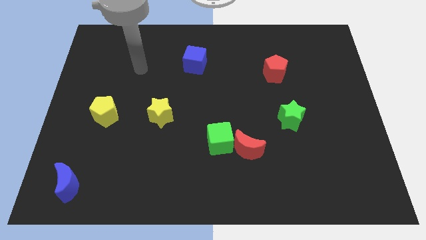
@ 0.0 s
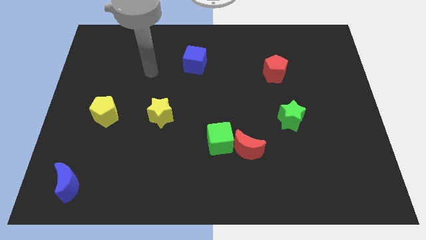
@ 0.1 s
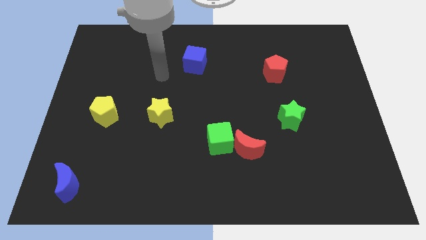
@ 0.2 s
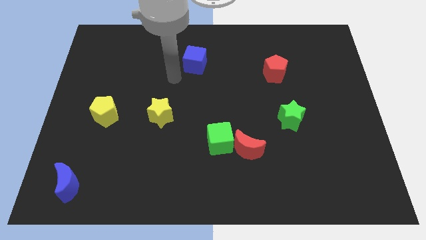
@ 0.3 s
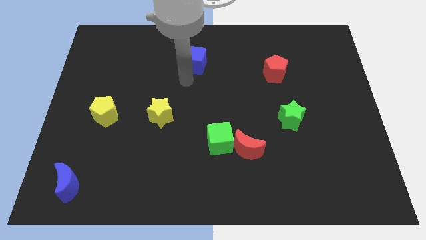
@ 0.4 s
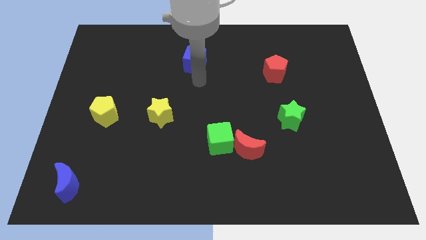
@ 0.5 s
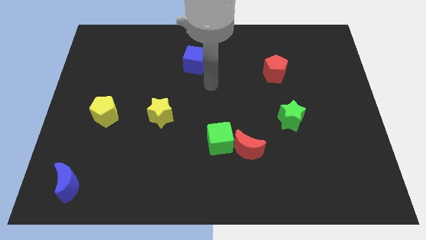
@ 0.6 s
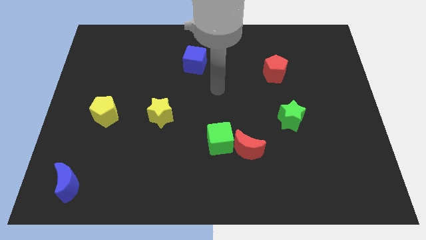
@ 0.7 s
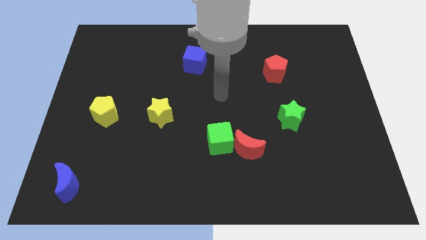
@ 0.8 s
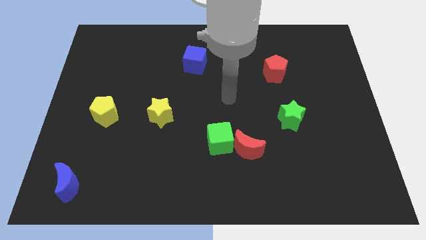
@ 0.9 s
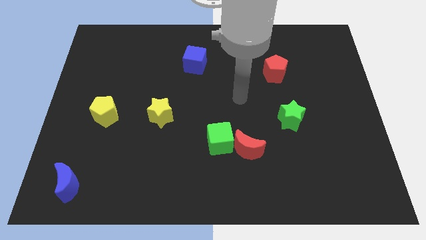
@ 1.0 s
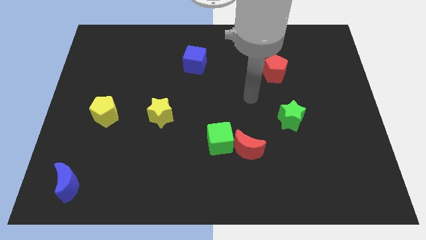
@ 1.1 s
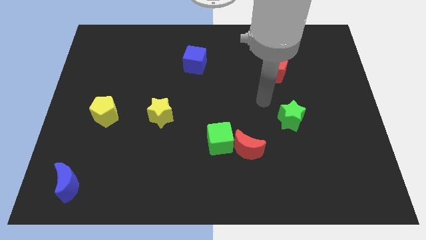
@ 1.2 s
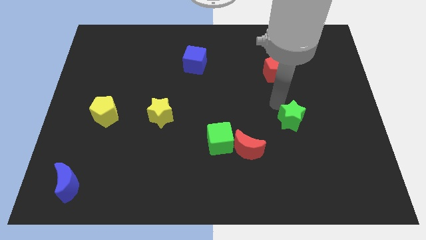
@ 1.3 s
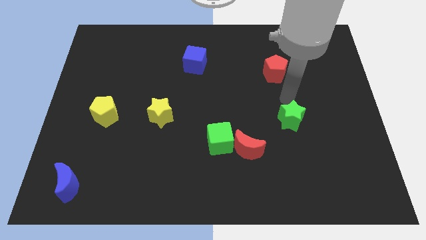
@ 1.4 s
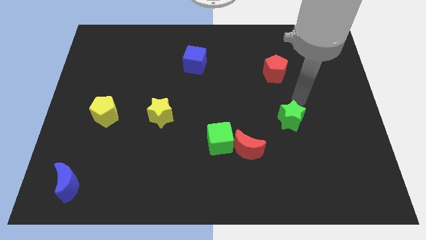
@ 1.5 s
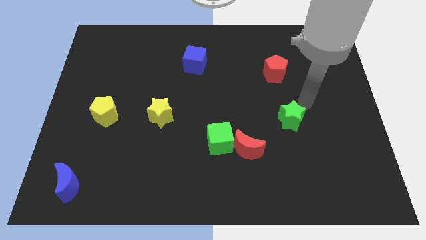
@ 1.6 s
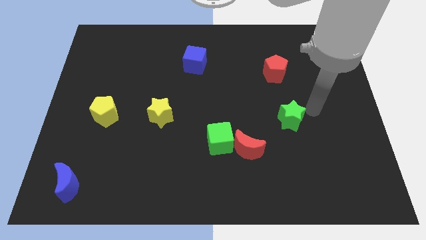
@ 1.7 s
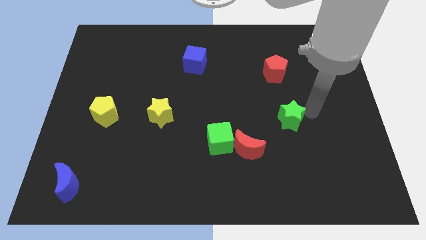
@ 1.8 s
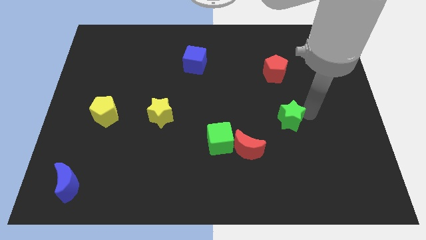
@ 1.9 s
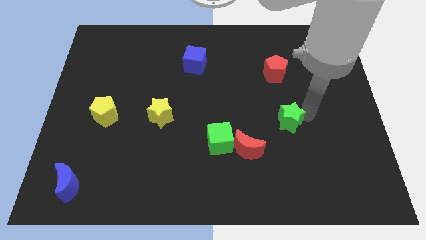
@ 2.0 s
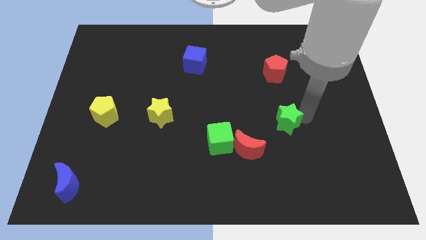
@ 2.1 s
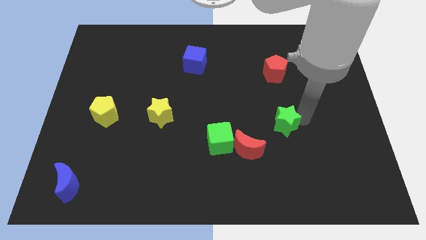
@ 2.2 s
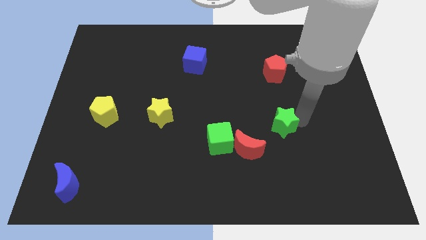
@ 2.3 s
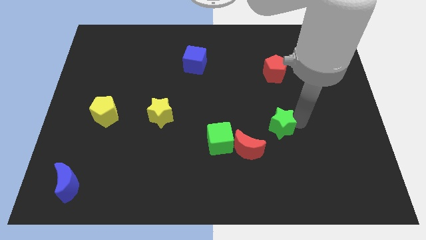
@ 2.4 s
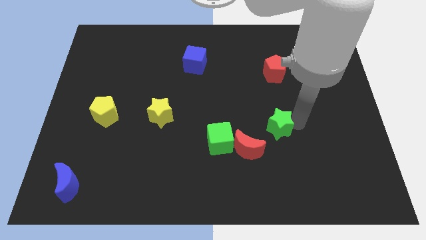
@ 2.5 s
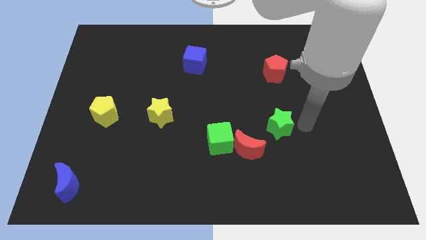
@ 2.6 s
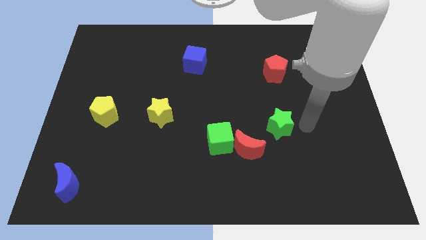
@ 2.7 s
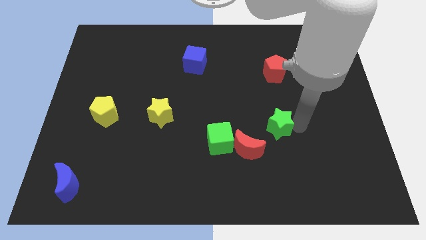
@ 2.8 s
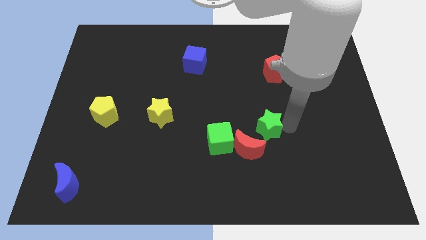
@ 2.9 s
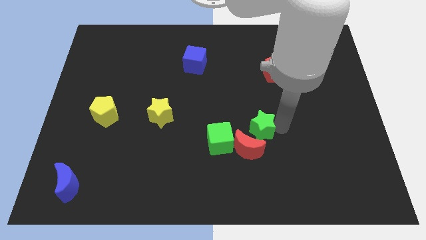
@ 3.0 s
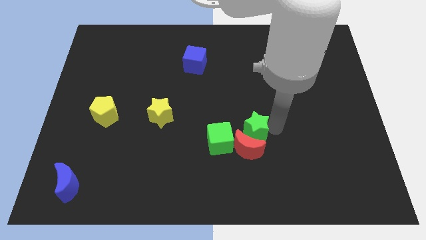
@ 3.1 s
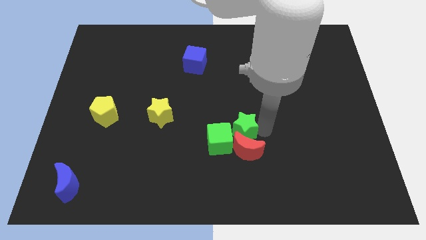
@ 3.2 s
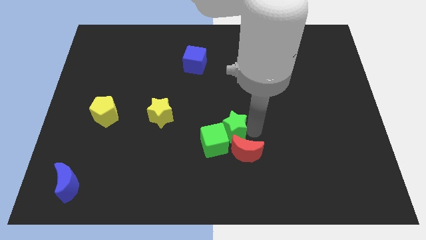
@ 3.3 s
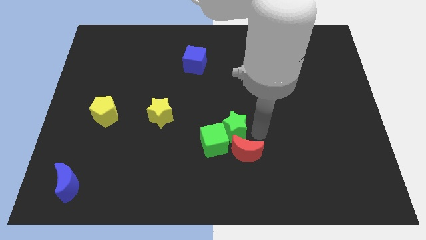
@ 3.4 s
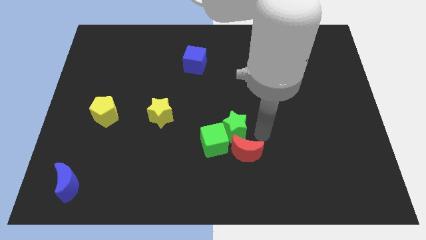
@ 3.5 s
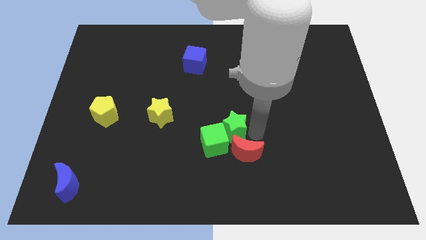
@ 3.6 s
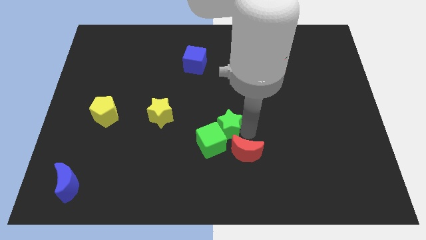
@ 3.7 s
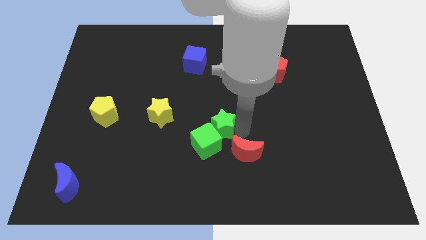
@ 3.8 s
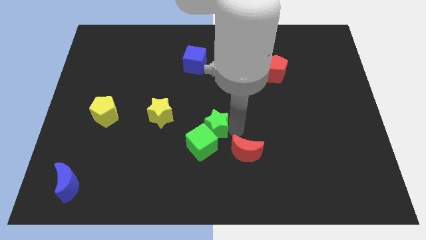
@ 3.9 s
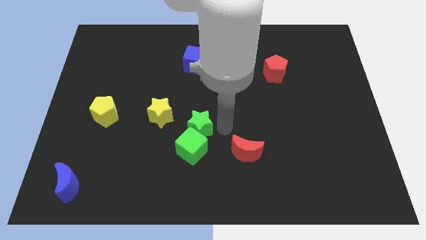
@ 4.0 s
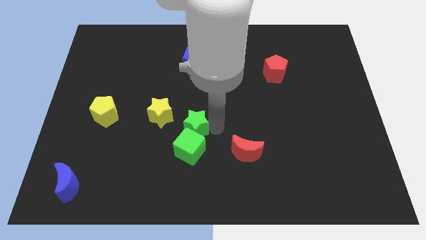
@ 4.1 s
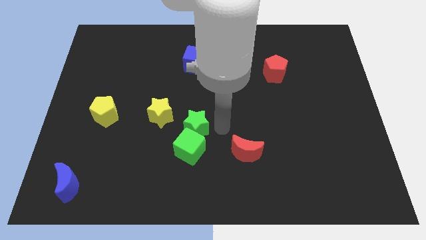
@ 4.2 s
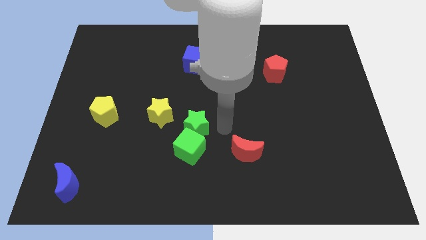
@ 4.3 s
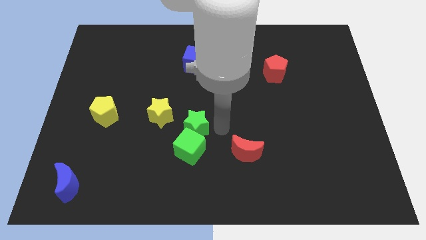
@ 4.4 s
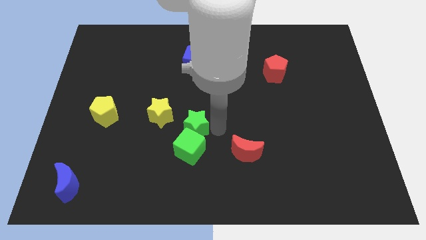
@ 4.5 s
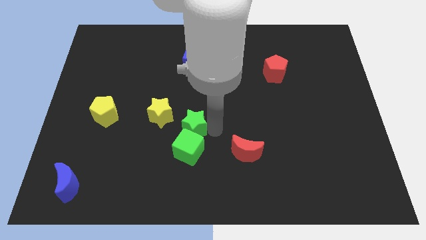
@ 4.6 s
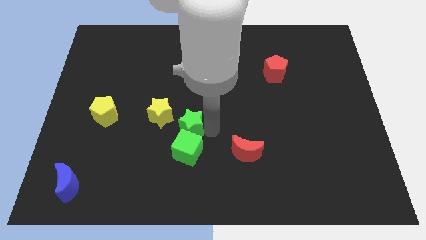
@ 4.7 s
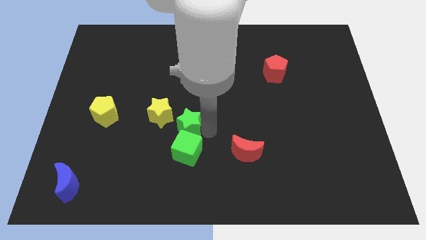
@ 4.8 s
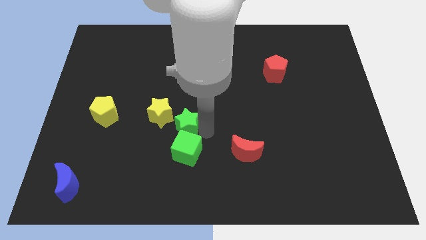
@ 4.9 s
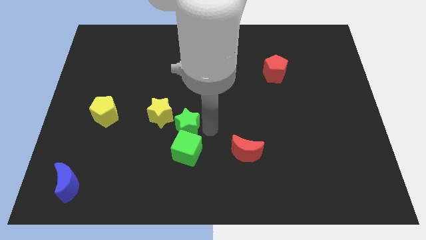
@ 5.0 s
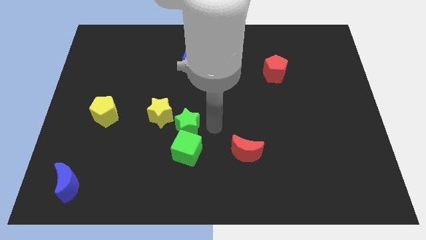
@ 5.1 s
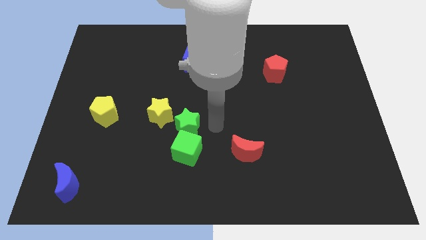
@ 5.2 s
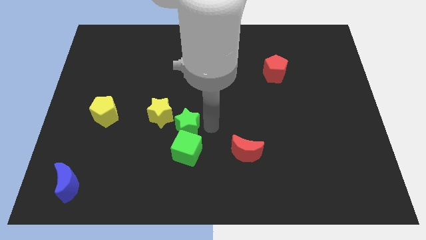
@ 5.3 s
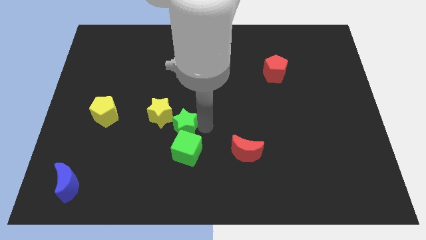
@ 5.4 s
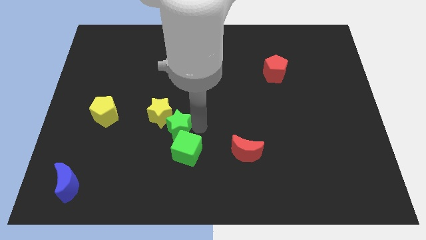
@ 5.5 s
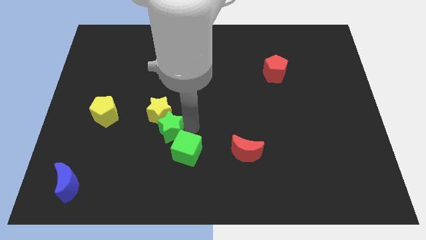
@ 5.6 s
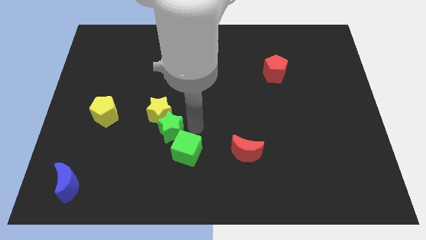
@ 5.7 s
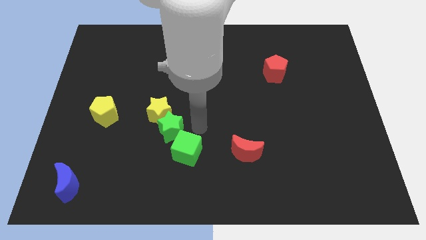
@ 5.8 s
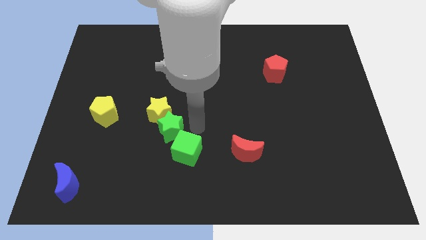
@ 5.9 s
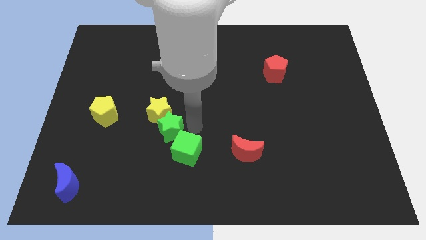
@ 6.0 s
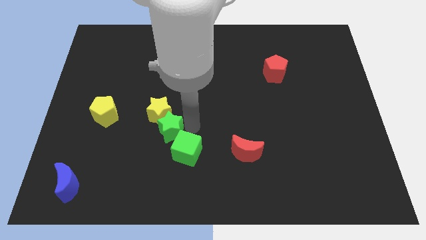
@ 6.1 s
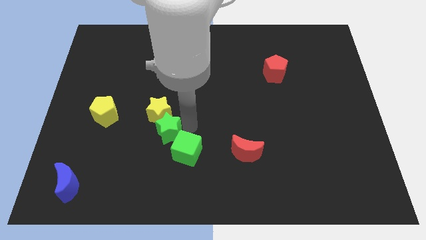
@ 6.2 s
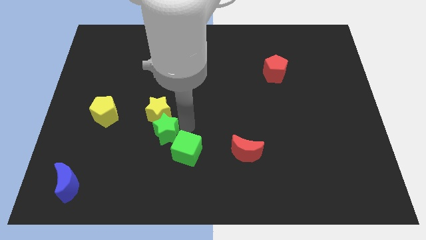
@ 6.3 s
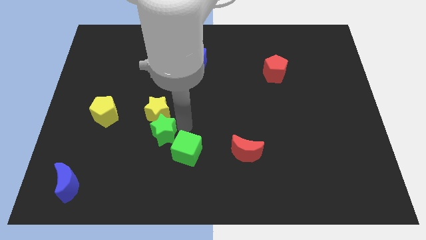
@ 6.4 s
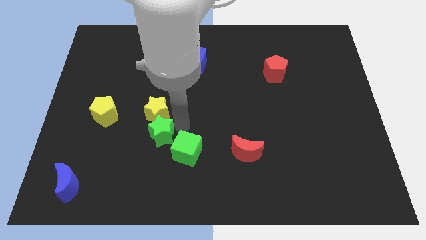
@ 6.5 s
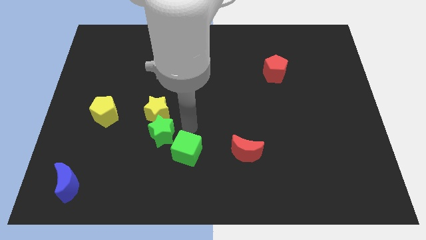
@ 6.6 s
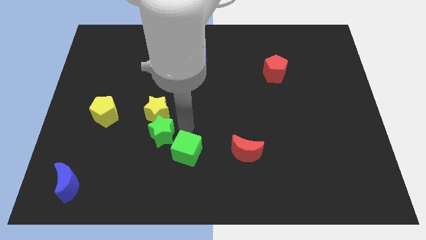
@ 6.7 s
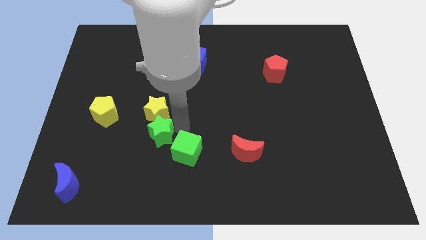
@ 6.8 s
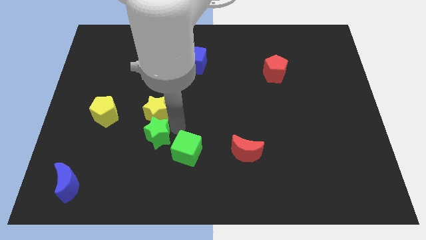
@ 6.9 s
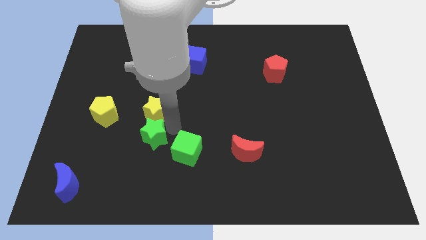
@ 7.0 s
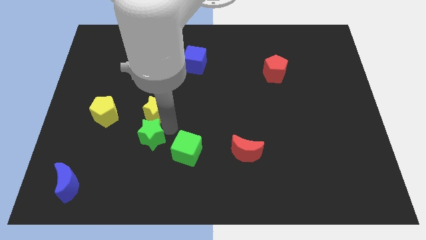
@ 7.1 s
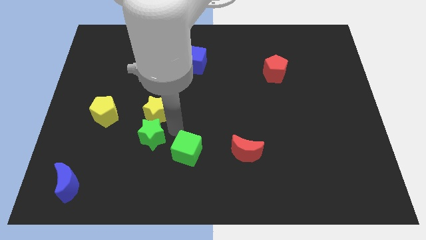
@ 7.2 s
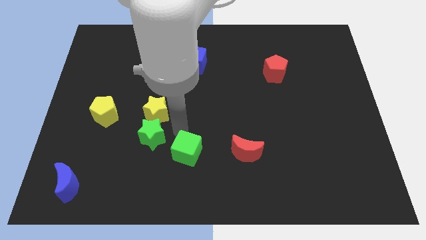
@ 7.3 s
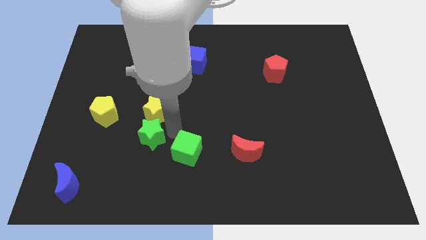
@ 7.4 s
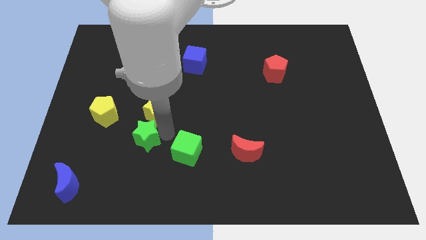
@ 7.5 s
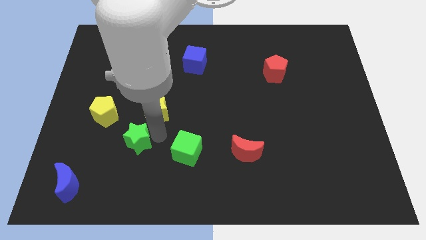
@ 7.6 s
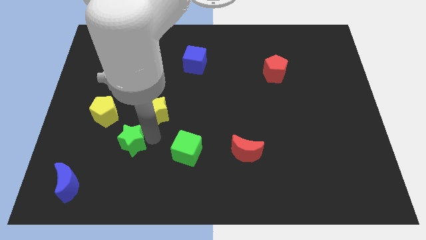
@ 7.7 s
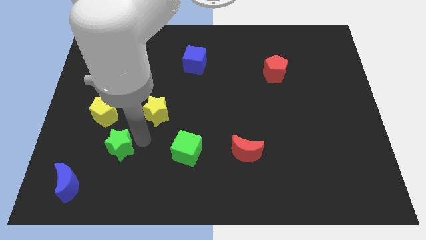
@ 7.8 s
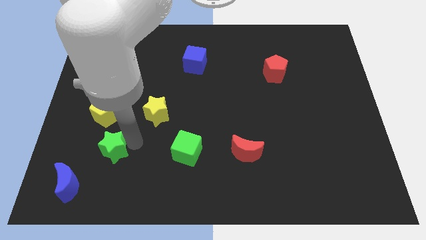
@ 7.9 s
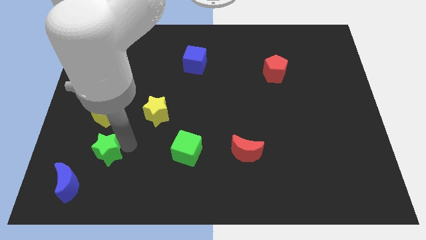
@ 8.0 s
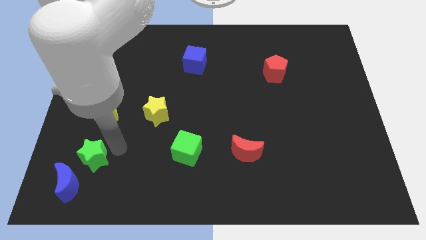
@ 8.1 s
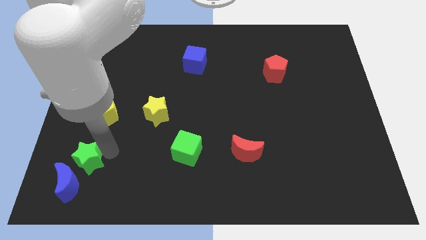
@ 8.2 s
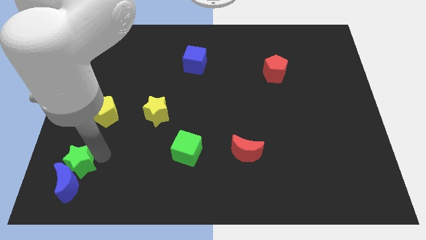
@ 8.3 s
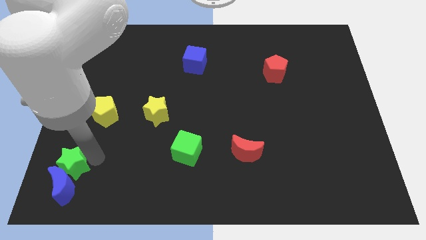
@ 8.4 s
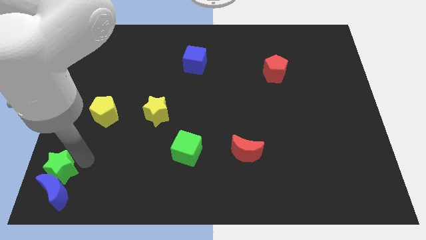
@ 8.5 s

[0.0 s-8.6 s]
move the green star to the lower left corner
